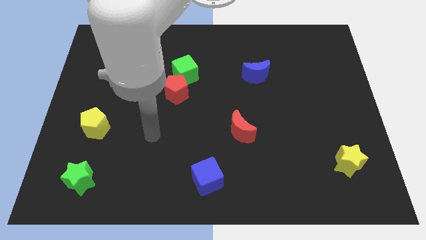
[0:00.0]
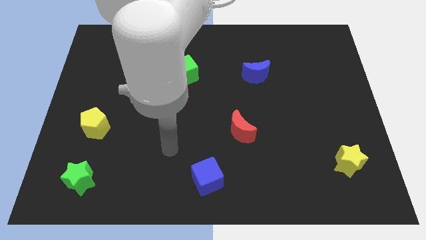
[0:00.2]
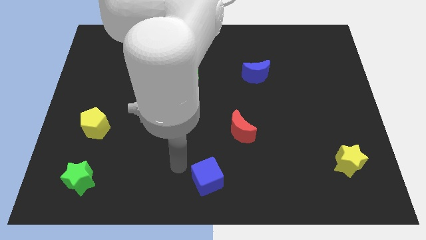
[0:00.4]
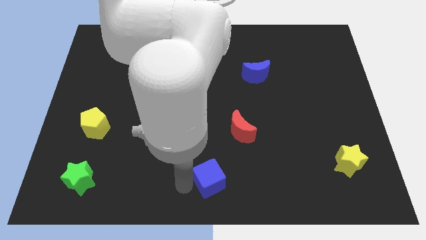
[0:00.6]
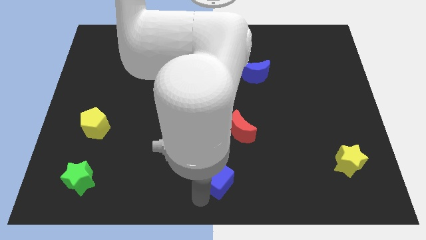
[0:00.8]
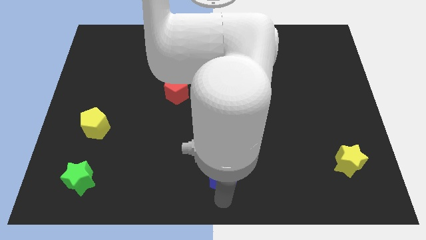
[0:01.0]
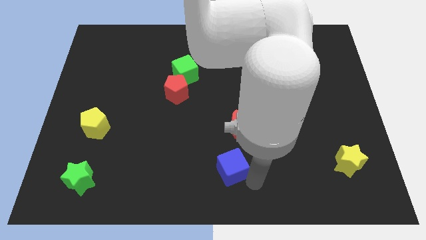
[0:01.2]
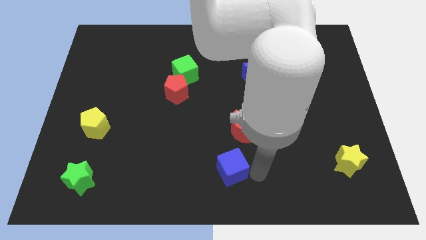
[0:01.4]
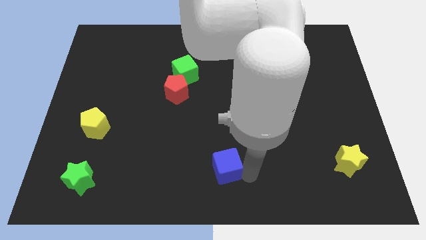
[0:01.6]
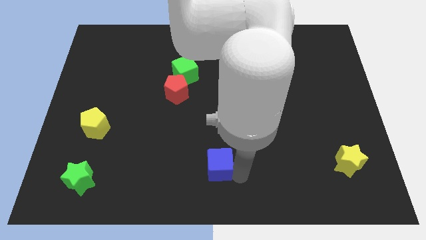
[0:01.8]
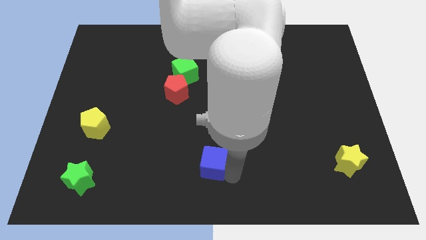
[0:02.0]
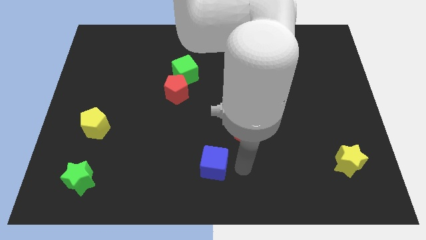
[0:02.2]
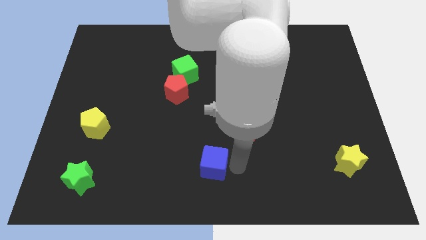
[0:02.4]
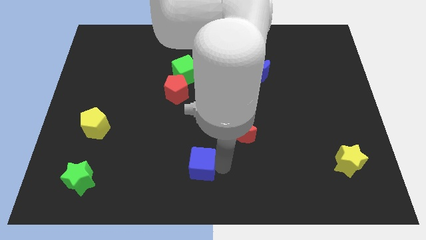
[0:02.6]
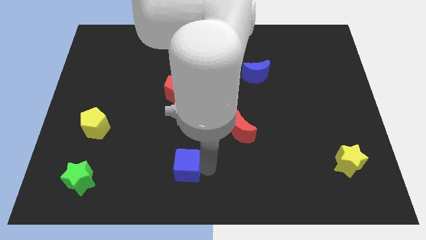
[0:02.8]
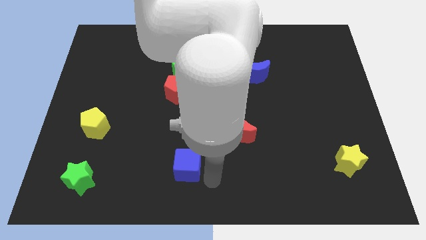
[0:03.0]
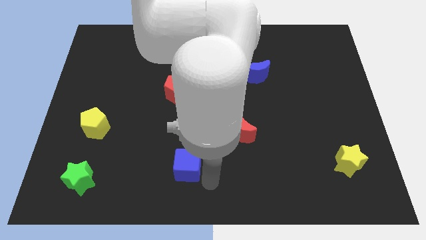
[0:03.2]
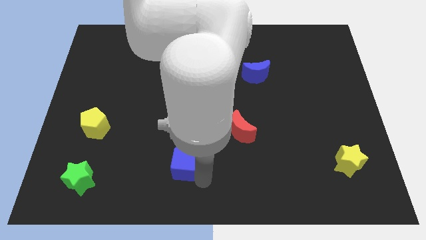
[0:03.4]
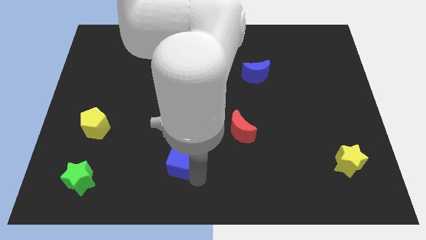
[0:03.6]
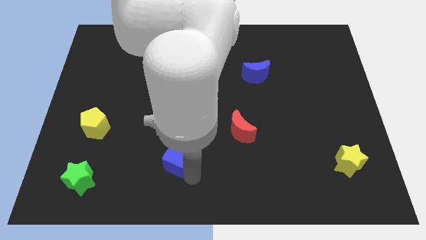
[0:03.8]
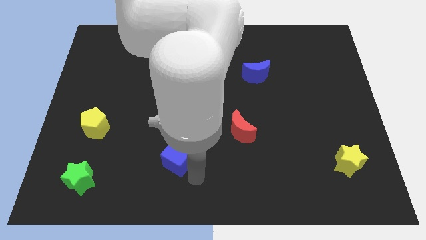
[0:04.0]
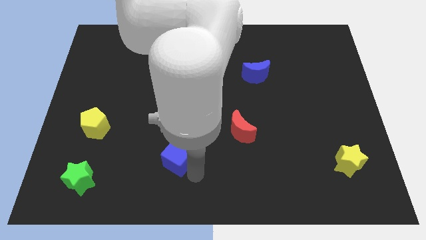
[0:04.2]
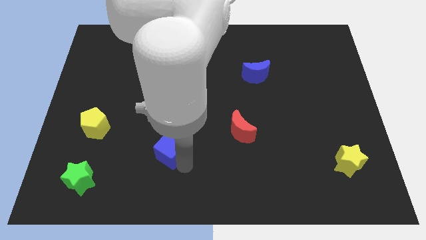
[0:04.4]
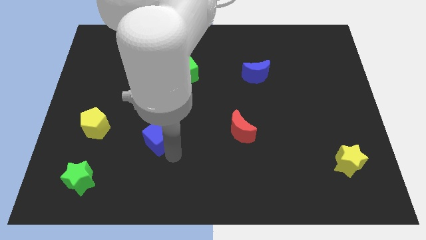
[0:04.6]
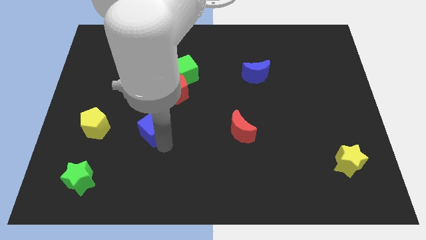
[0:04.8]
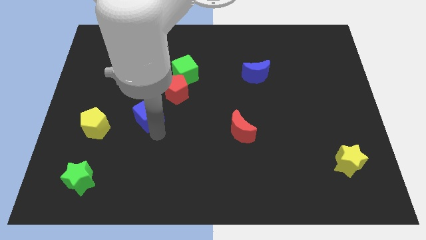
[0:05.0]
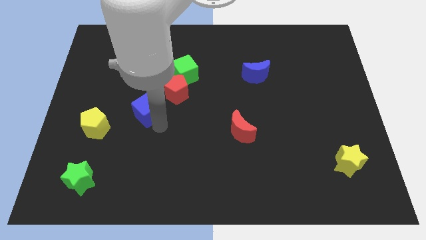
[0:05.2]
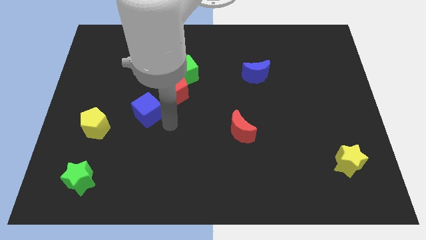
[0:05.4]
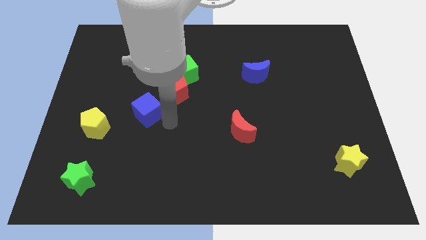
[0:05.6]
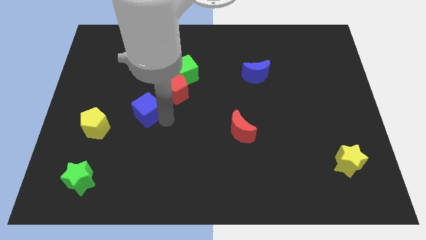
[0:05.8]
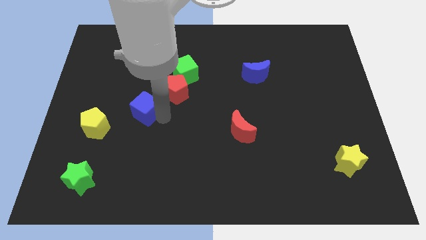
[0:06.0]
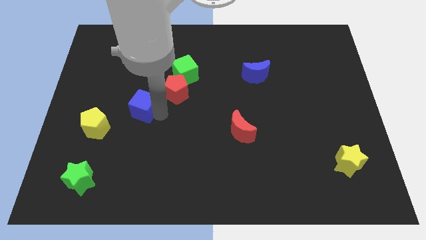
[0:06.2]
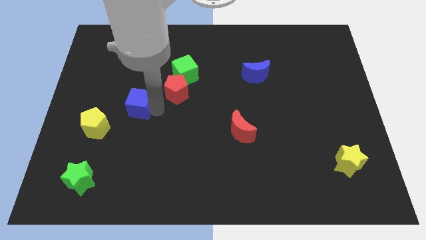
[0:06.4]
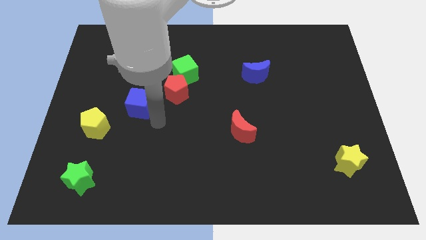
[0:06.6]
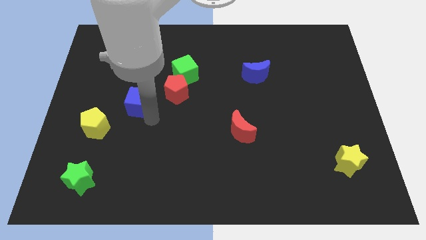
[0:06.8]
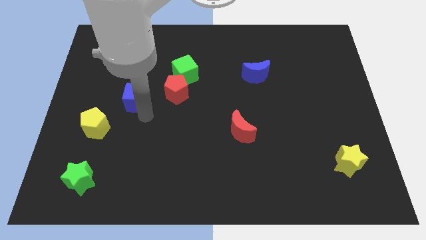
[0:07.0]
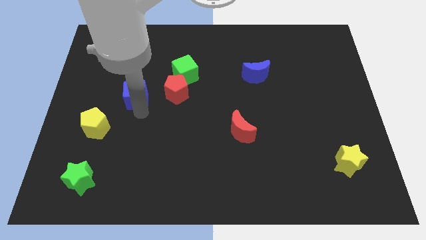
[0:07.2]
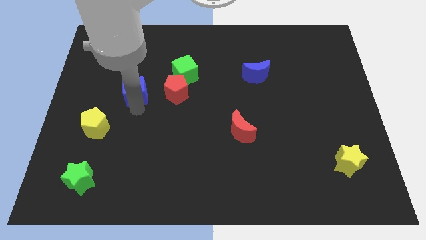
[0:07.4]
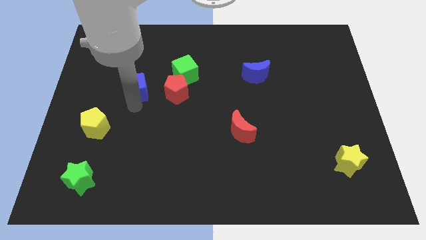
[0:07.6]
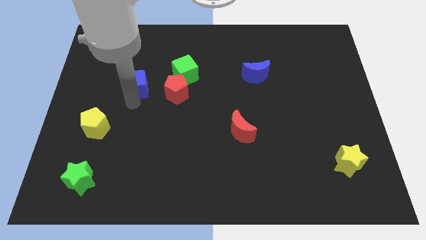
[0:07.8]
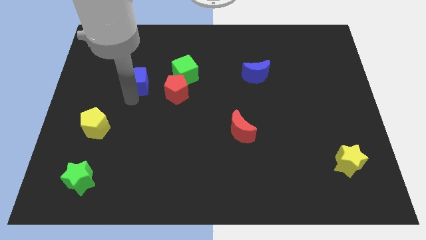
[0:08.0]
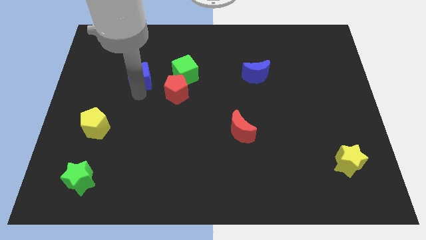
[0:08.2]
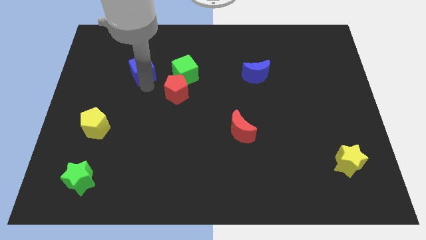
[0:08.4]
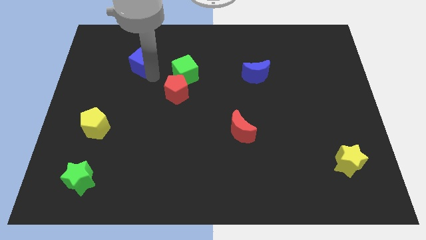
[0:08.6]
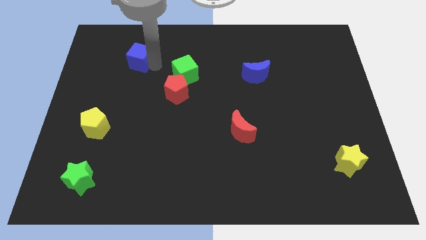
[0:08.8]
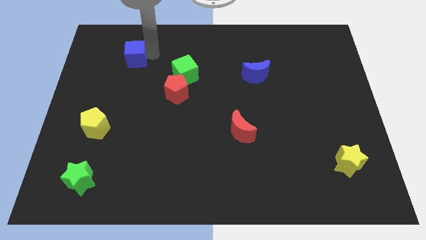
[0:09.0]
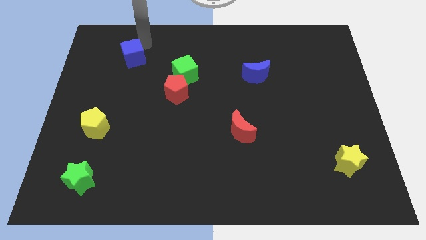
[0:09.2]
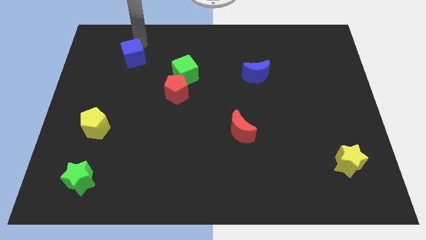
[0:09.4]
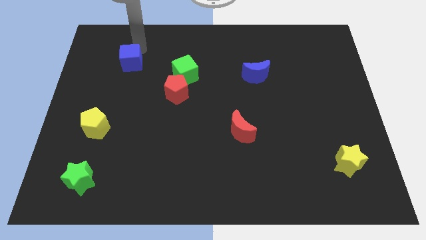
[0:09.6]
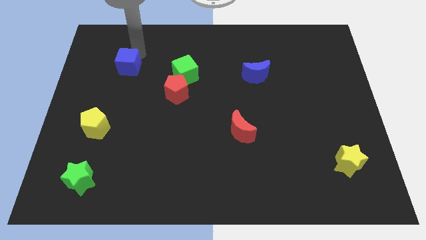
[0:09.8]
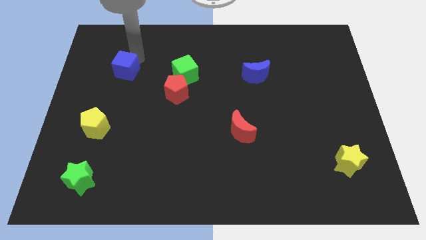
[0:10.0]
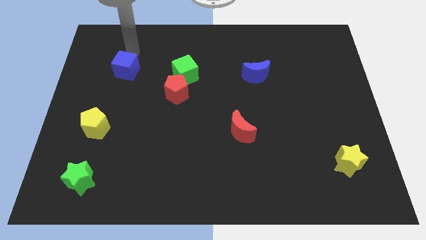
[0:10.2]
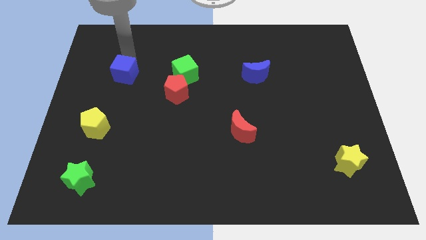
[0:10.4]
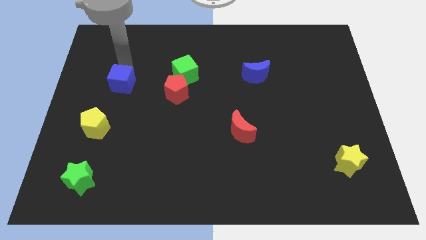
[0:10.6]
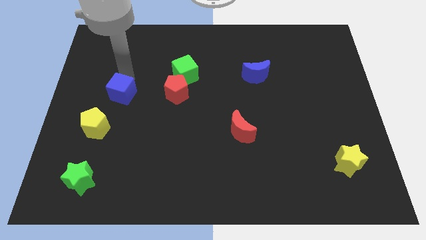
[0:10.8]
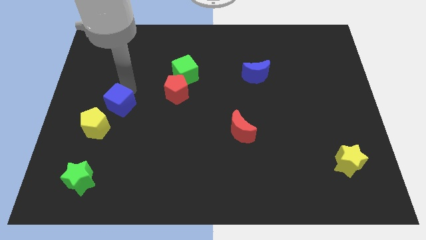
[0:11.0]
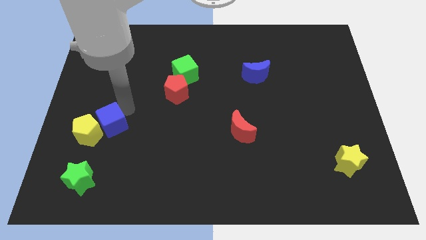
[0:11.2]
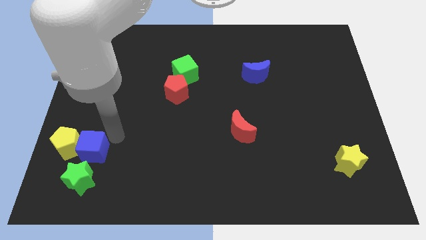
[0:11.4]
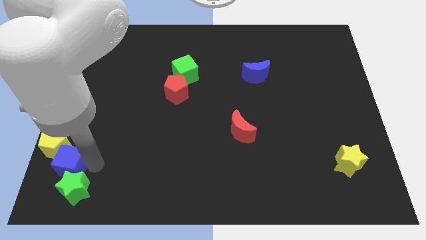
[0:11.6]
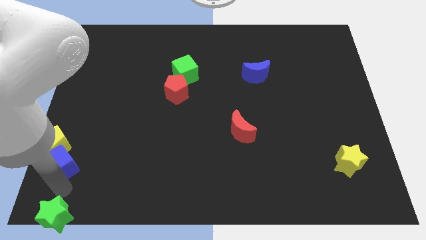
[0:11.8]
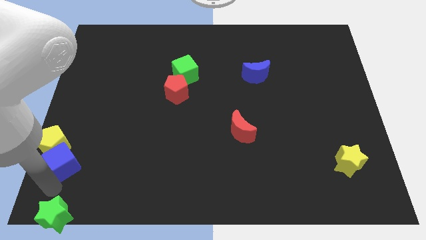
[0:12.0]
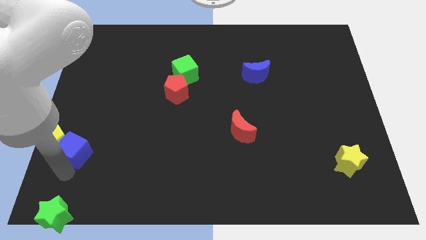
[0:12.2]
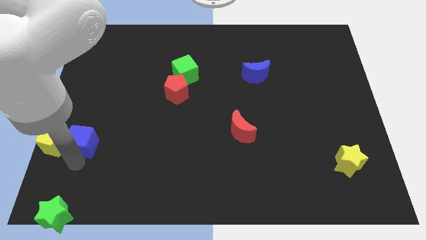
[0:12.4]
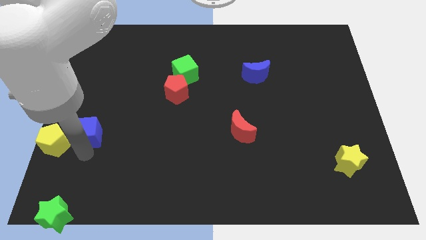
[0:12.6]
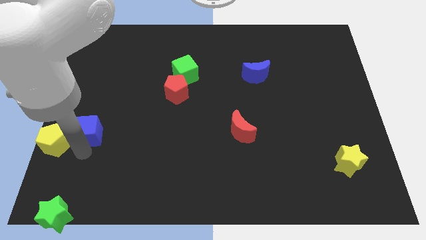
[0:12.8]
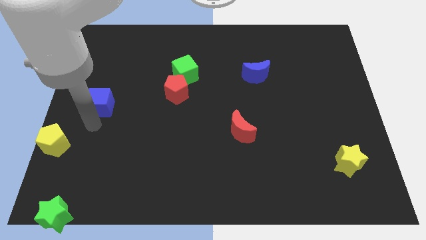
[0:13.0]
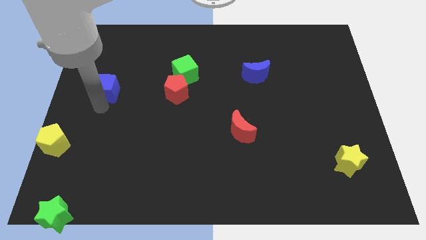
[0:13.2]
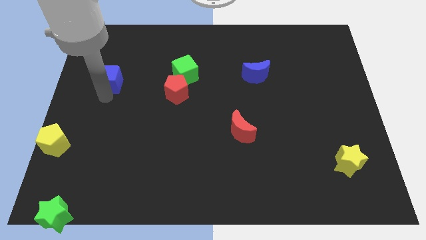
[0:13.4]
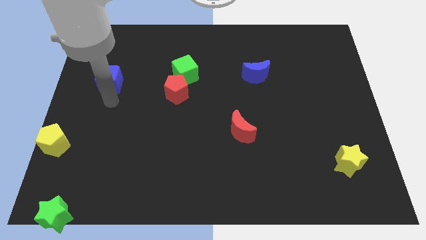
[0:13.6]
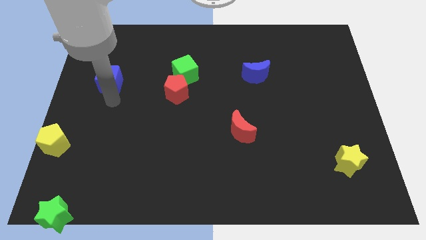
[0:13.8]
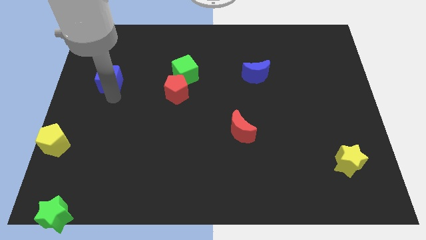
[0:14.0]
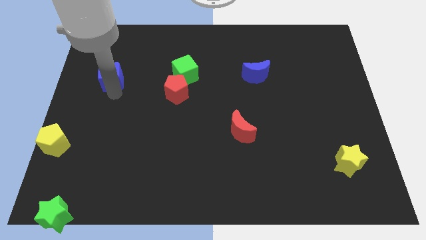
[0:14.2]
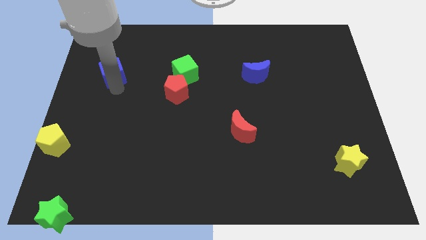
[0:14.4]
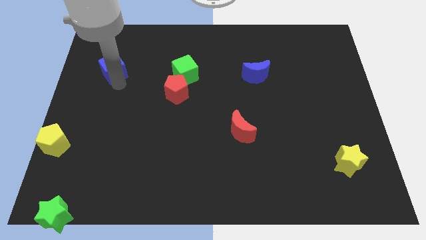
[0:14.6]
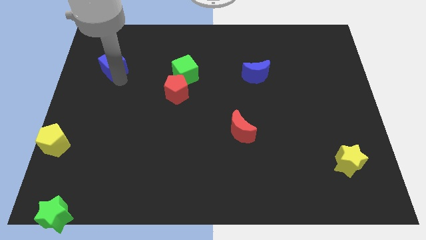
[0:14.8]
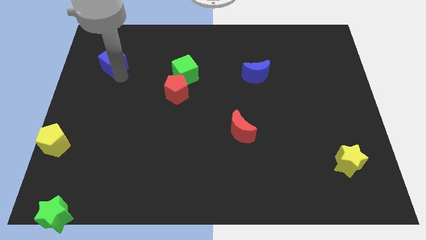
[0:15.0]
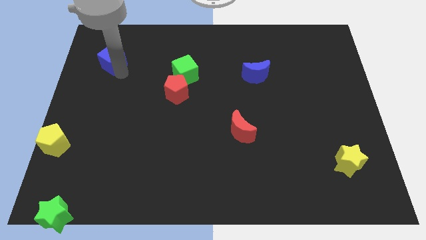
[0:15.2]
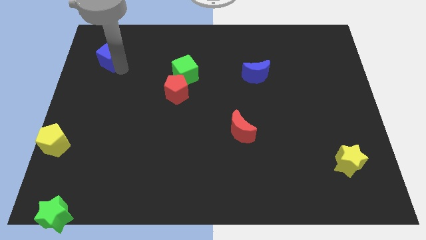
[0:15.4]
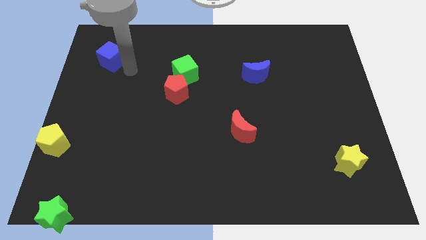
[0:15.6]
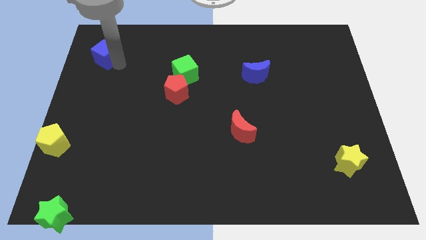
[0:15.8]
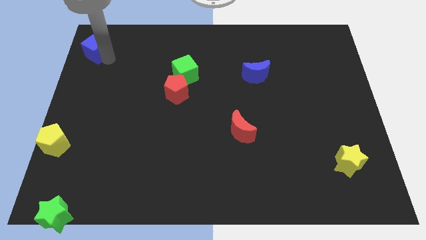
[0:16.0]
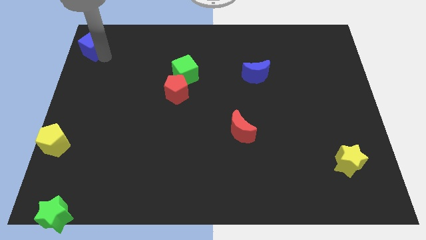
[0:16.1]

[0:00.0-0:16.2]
put the blue cube to the top left of the board
